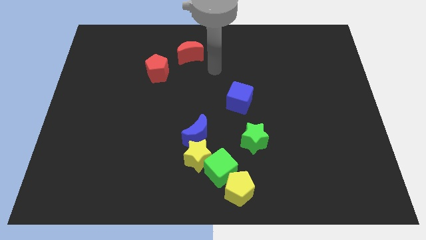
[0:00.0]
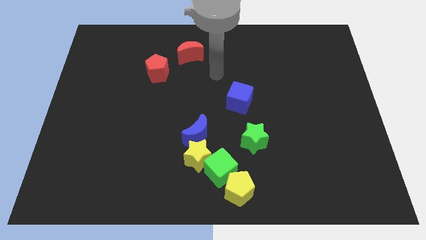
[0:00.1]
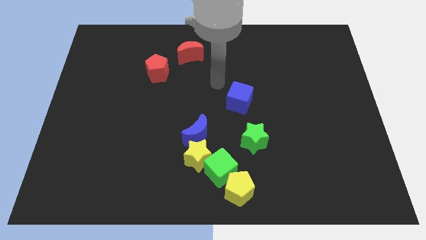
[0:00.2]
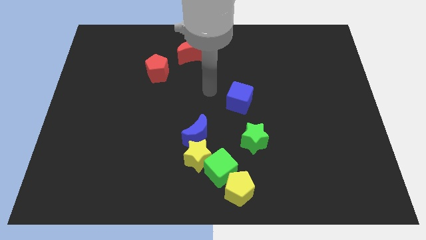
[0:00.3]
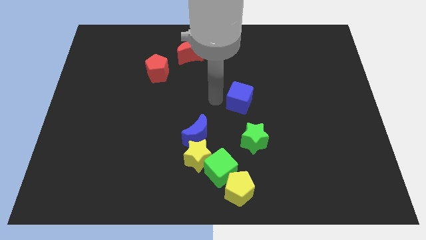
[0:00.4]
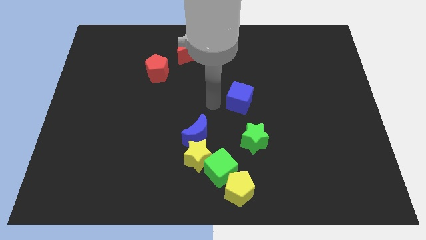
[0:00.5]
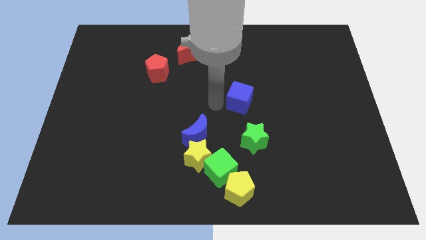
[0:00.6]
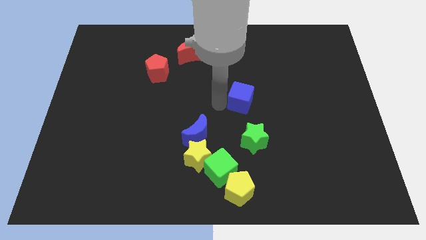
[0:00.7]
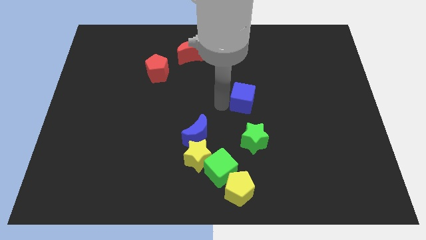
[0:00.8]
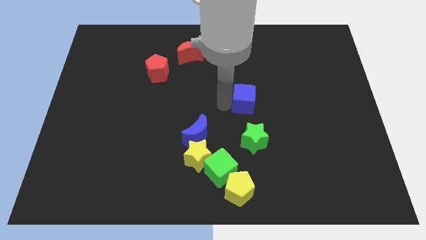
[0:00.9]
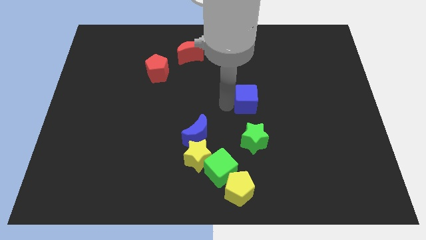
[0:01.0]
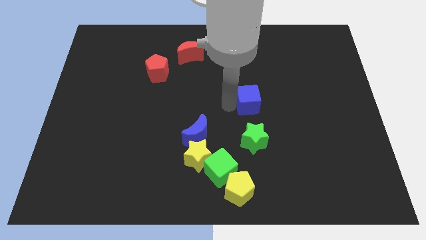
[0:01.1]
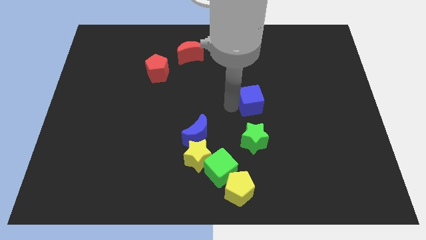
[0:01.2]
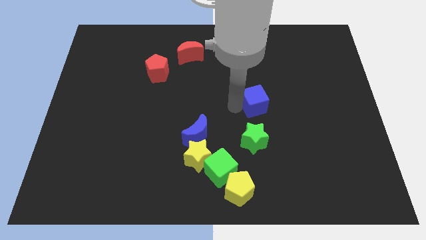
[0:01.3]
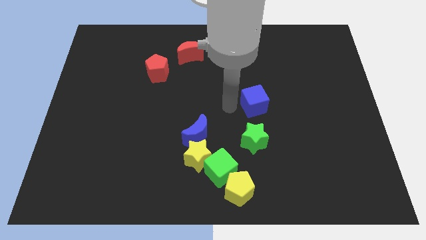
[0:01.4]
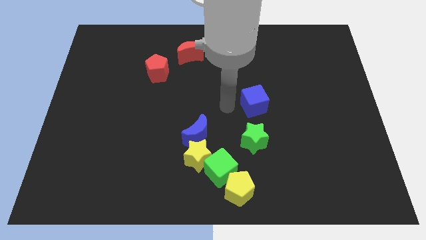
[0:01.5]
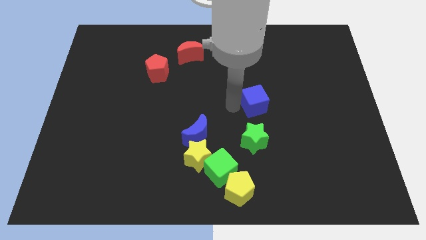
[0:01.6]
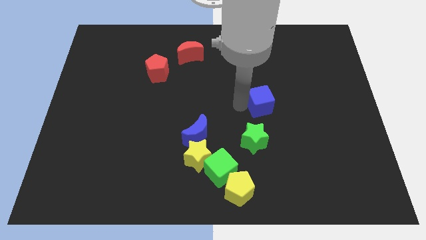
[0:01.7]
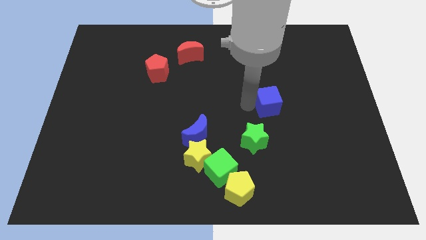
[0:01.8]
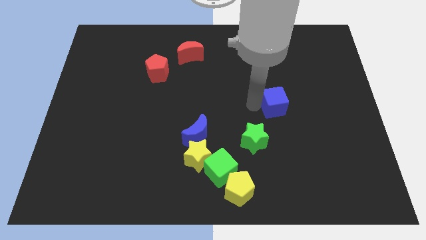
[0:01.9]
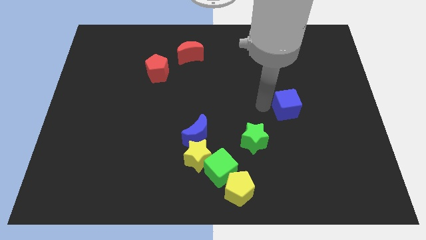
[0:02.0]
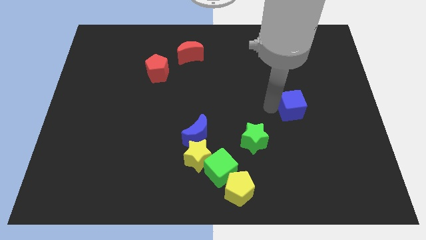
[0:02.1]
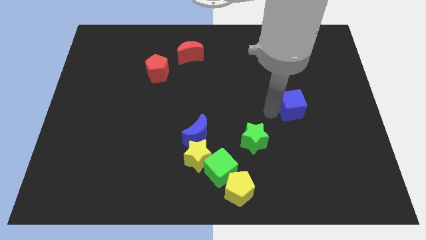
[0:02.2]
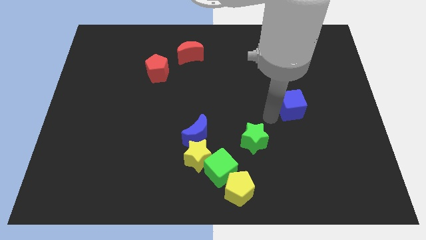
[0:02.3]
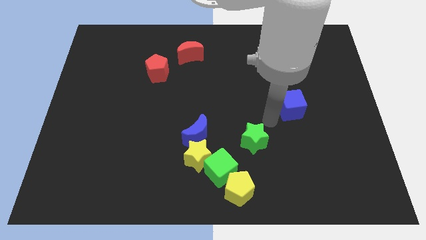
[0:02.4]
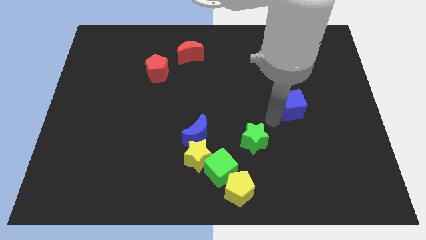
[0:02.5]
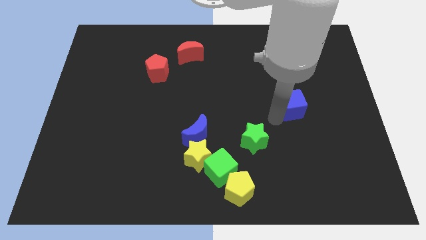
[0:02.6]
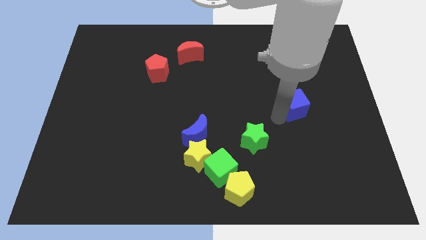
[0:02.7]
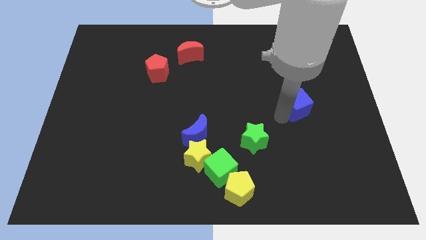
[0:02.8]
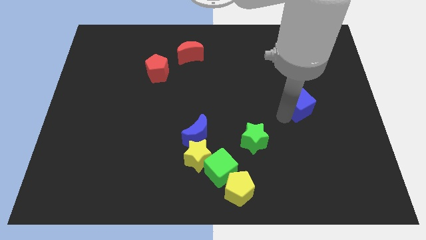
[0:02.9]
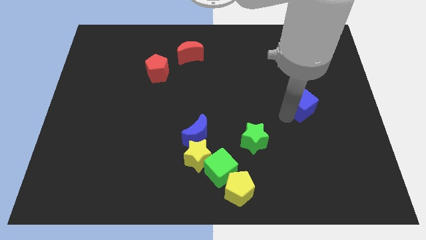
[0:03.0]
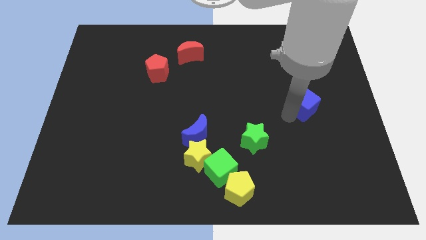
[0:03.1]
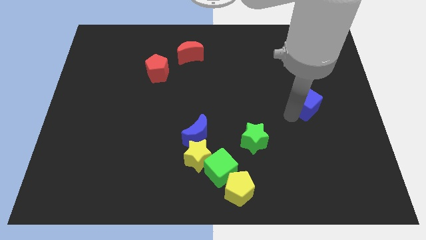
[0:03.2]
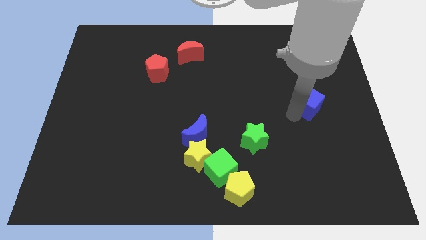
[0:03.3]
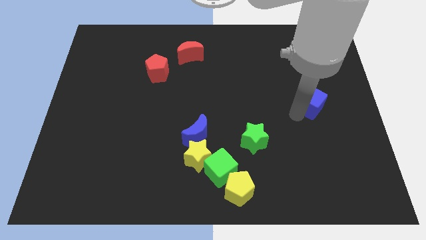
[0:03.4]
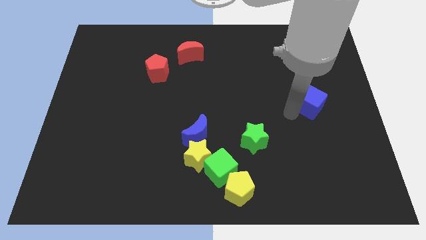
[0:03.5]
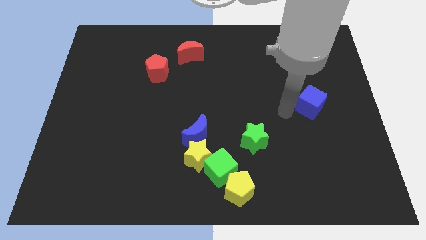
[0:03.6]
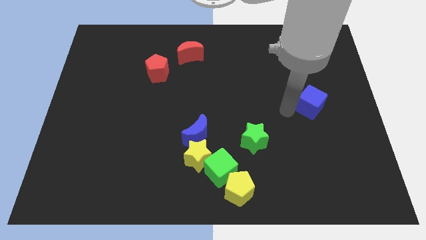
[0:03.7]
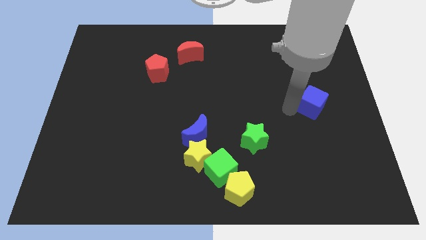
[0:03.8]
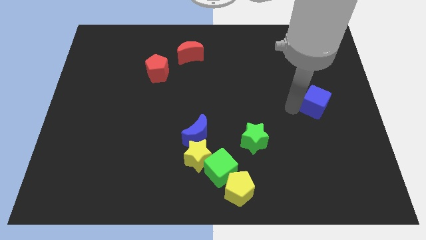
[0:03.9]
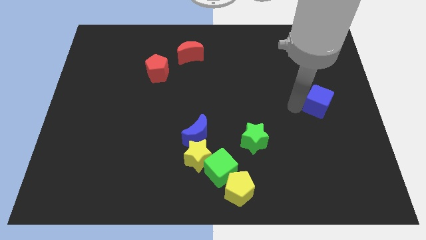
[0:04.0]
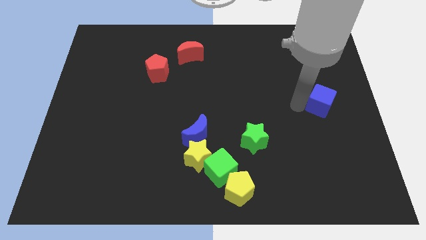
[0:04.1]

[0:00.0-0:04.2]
push the blue cube to the right side

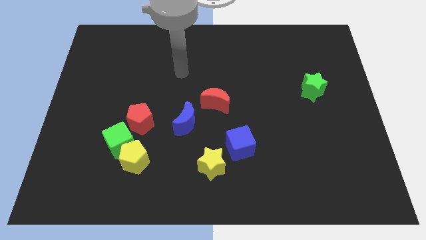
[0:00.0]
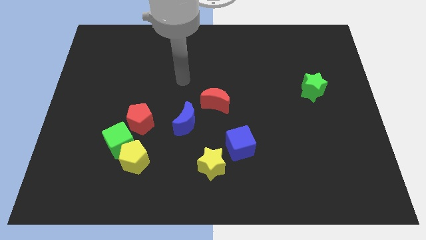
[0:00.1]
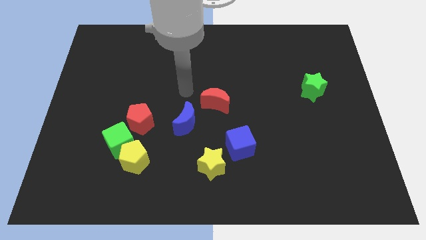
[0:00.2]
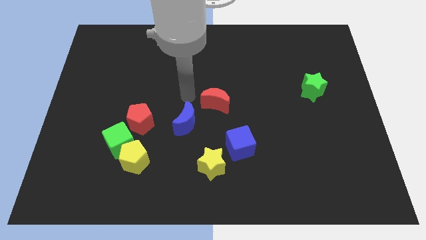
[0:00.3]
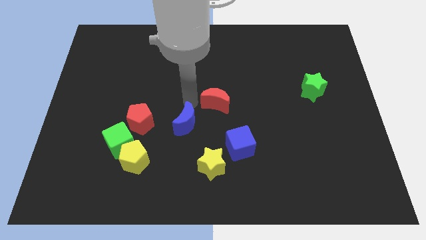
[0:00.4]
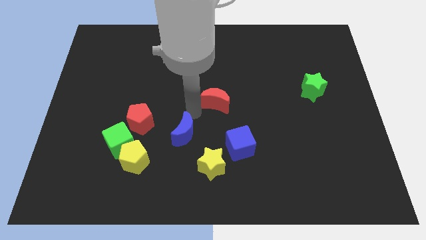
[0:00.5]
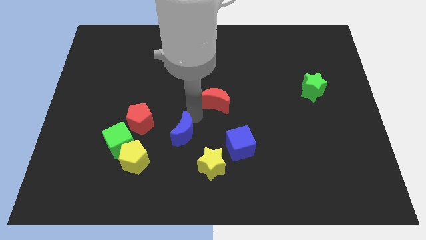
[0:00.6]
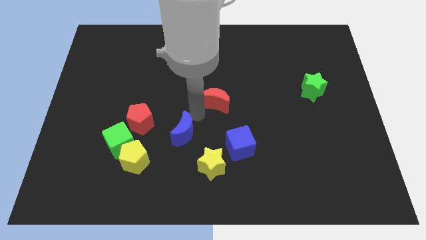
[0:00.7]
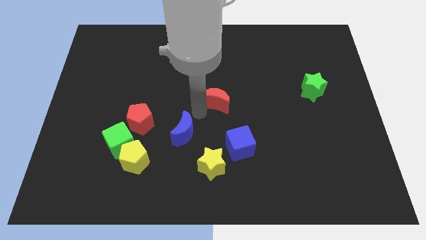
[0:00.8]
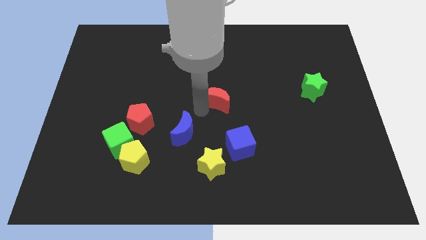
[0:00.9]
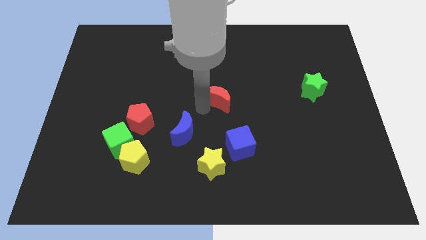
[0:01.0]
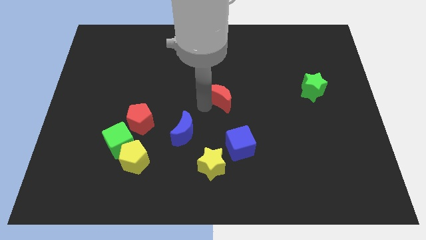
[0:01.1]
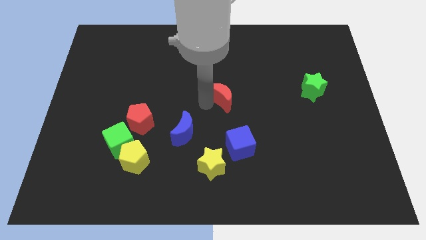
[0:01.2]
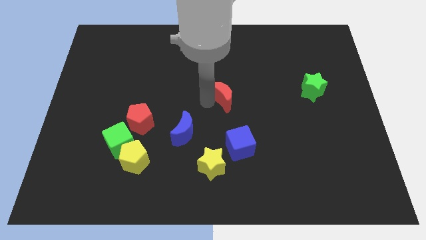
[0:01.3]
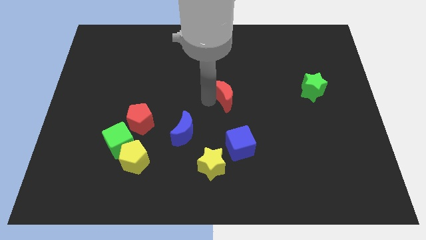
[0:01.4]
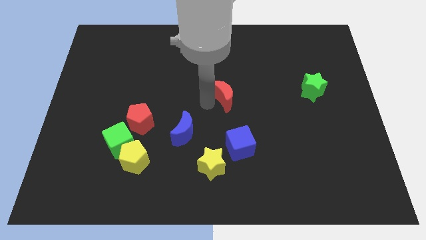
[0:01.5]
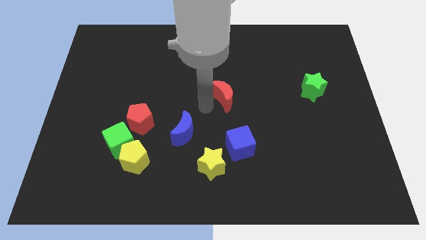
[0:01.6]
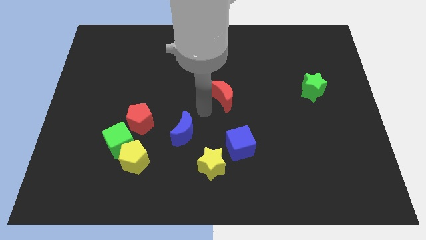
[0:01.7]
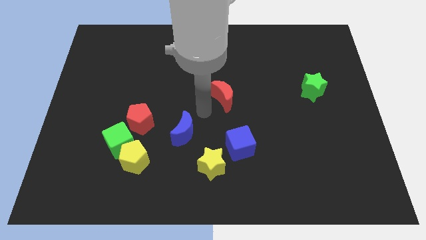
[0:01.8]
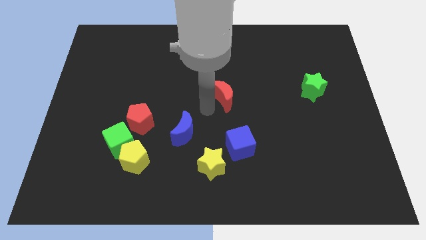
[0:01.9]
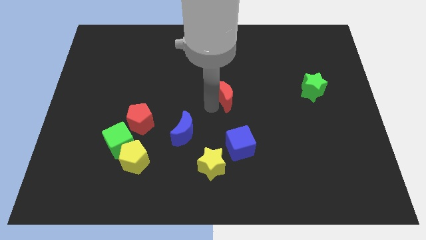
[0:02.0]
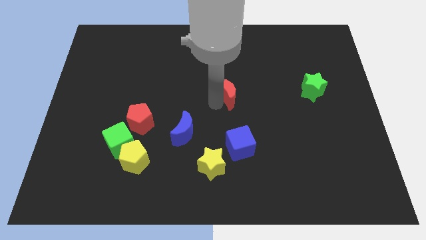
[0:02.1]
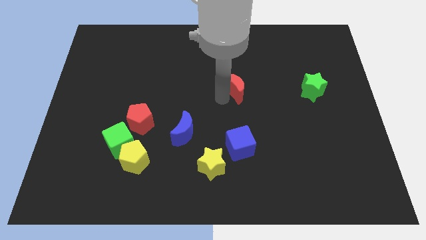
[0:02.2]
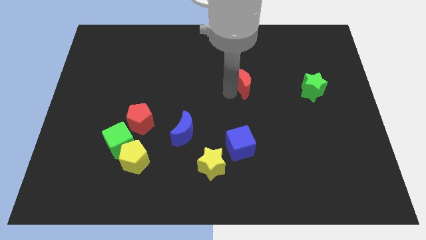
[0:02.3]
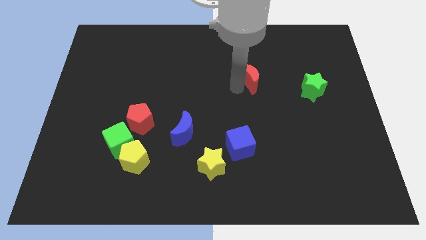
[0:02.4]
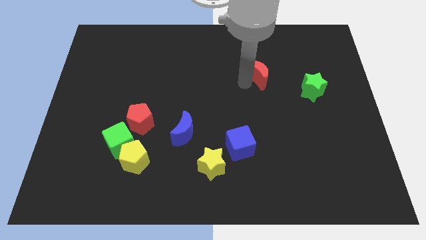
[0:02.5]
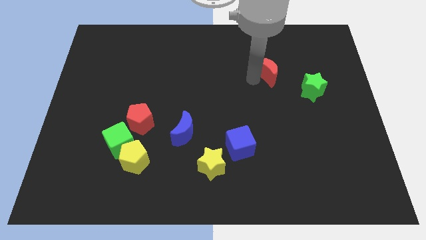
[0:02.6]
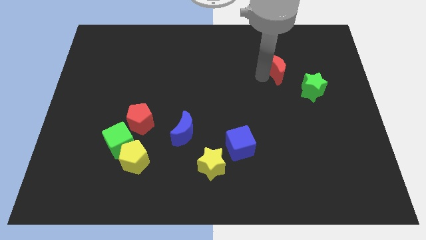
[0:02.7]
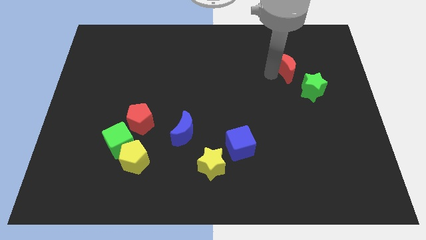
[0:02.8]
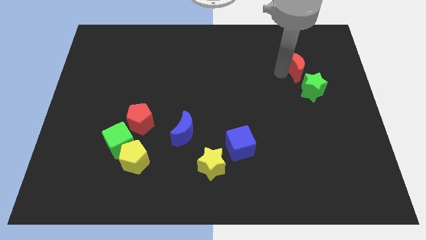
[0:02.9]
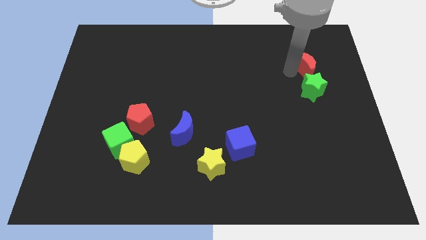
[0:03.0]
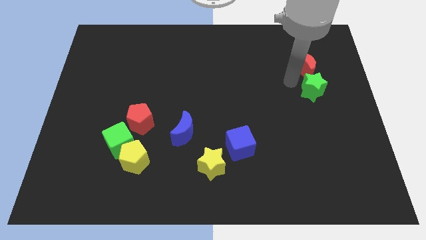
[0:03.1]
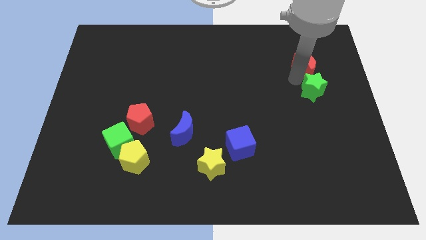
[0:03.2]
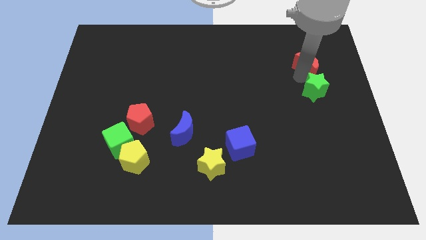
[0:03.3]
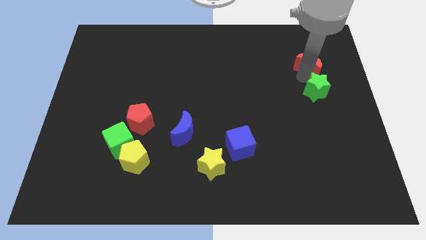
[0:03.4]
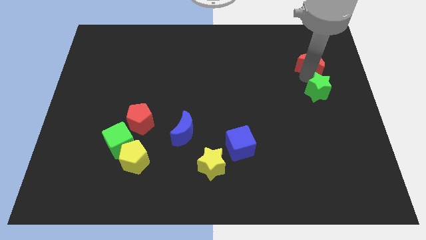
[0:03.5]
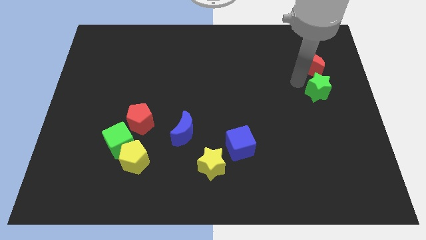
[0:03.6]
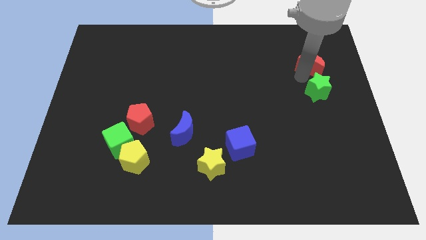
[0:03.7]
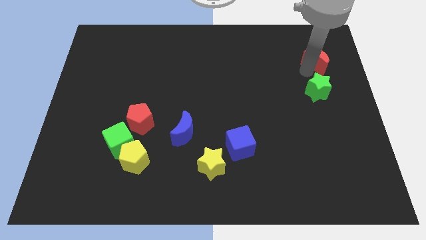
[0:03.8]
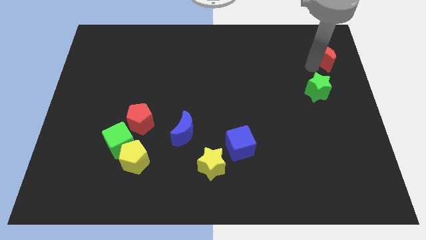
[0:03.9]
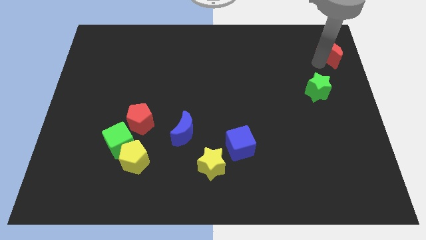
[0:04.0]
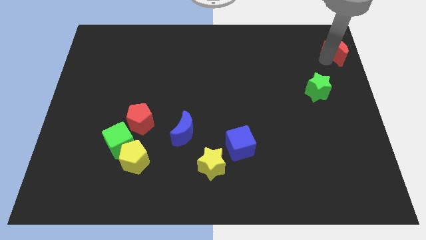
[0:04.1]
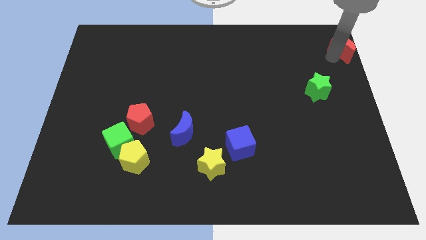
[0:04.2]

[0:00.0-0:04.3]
move the red moon to the upper right corner
